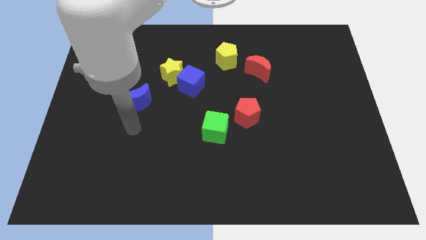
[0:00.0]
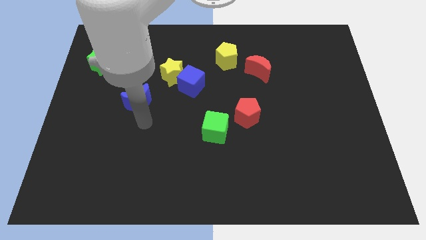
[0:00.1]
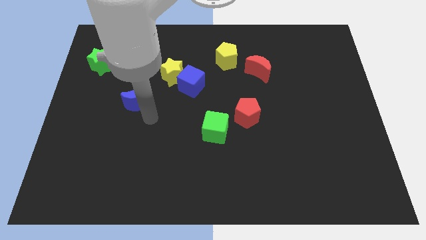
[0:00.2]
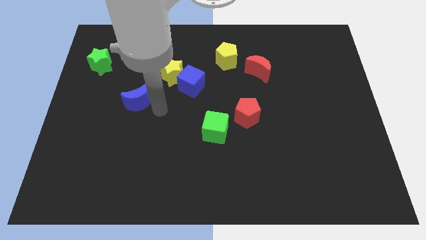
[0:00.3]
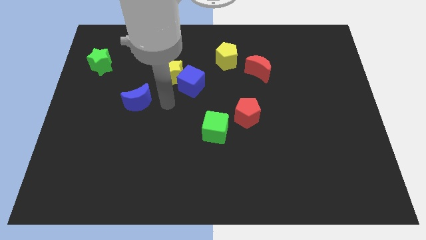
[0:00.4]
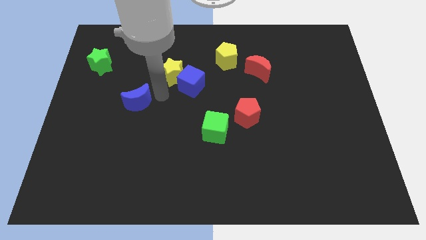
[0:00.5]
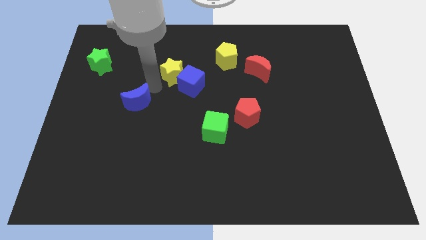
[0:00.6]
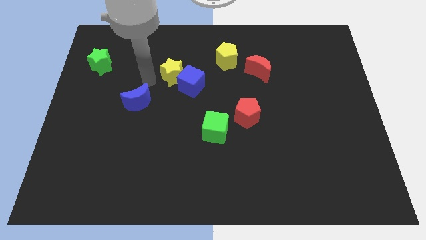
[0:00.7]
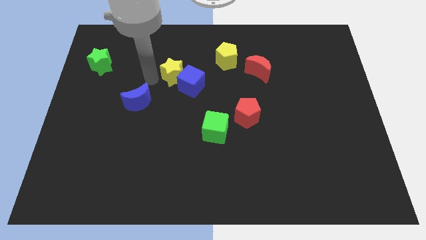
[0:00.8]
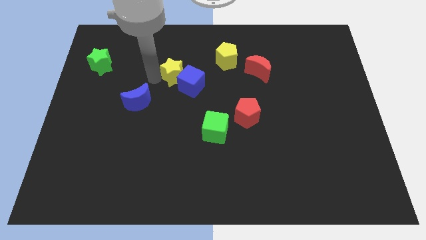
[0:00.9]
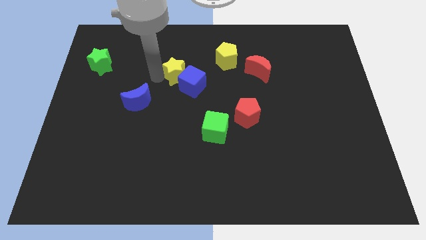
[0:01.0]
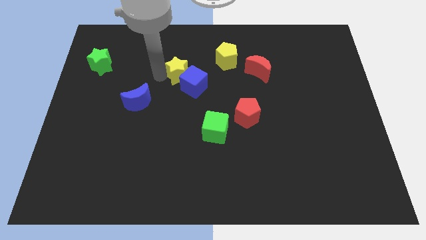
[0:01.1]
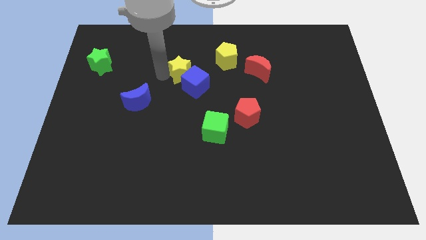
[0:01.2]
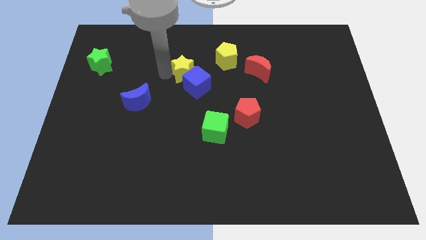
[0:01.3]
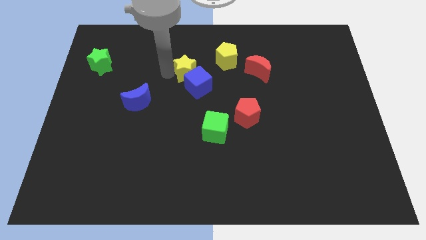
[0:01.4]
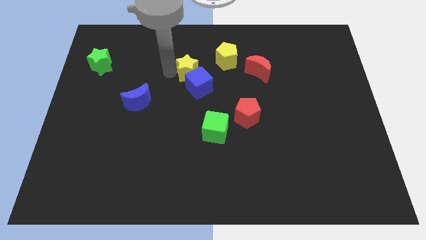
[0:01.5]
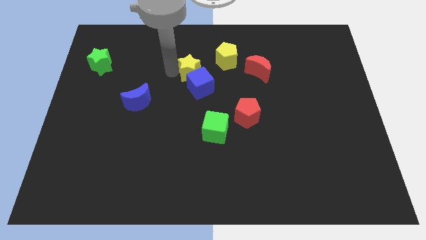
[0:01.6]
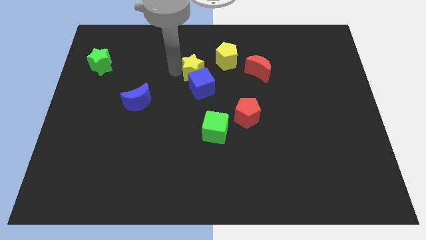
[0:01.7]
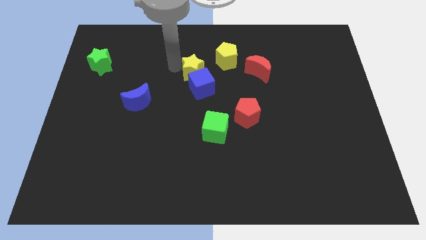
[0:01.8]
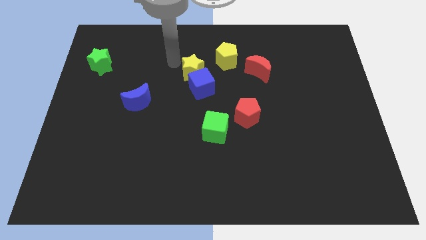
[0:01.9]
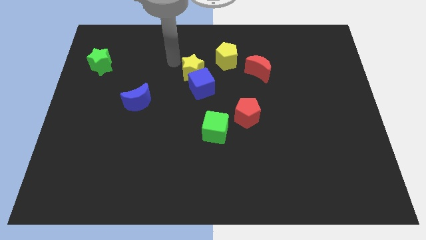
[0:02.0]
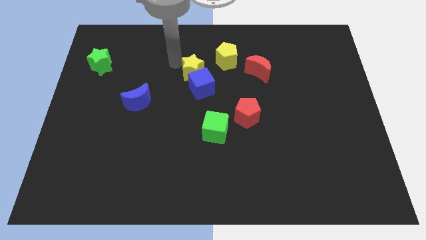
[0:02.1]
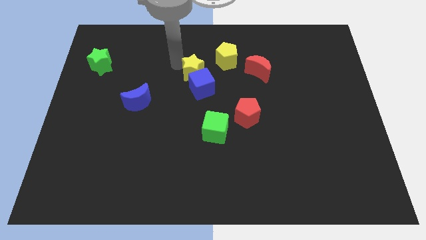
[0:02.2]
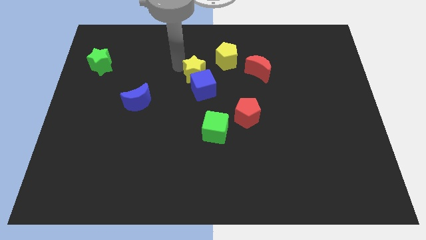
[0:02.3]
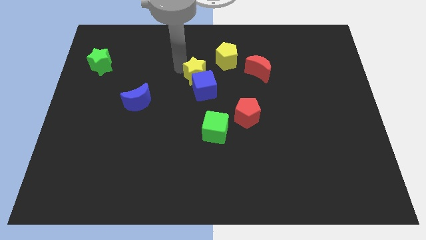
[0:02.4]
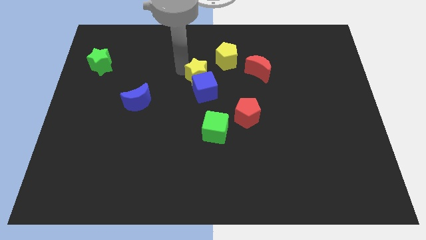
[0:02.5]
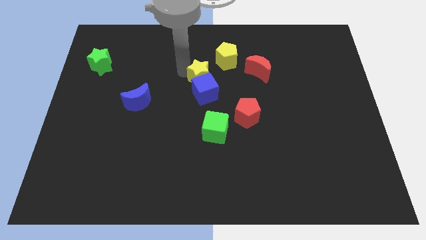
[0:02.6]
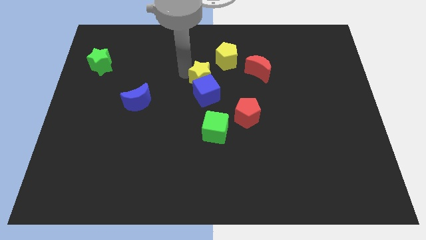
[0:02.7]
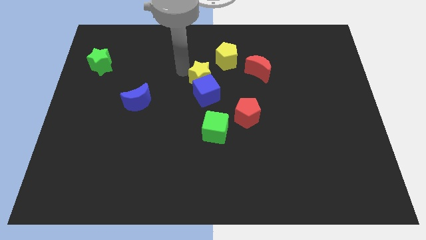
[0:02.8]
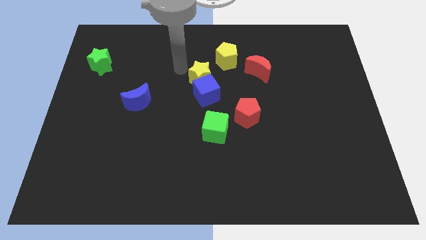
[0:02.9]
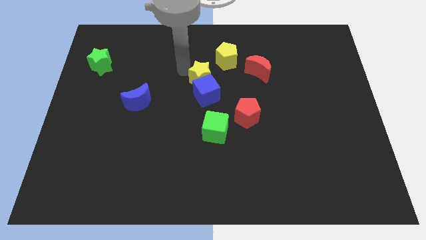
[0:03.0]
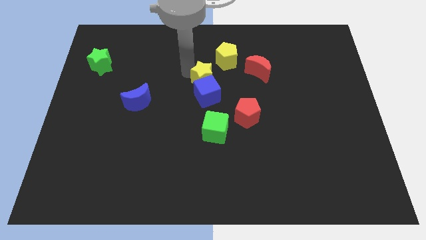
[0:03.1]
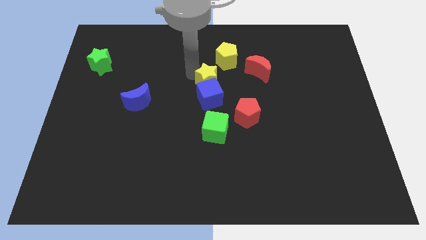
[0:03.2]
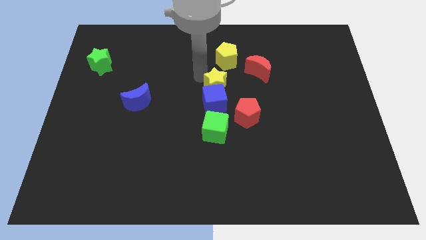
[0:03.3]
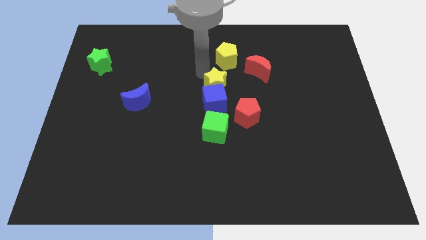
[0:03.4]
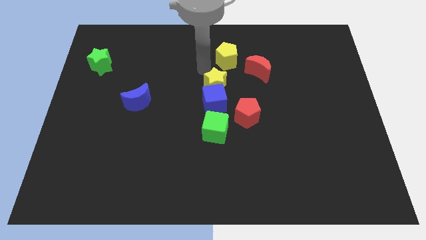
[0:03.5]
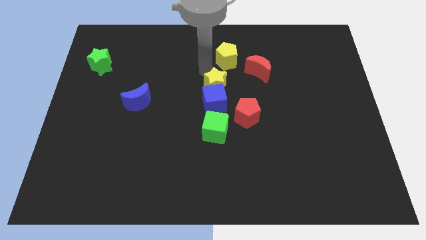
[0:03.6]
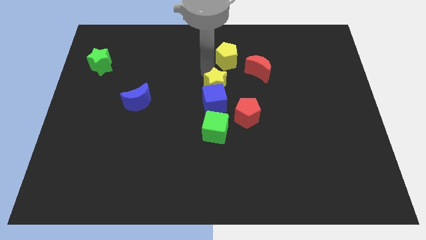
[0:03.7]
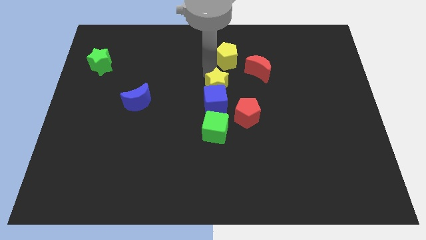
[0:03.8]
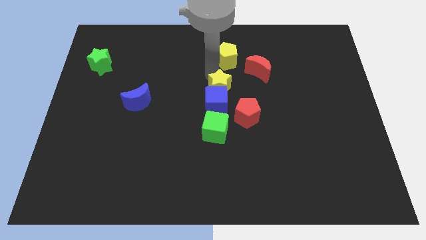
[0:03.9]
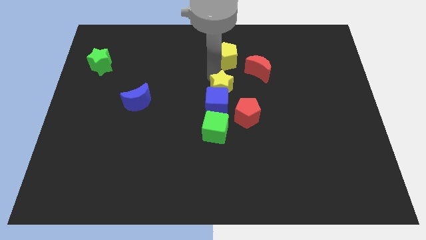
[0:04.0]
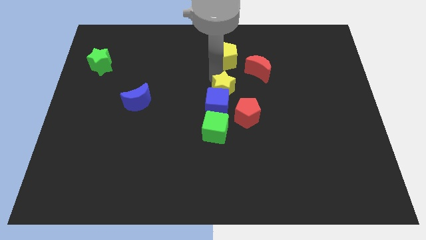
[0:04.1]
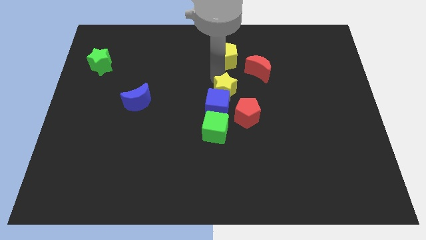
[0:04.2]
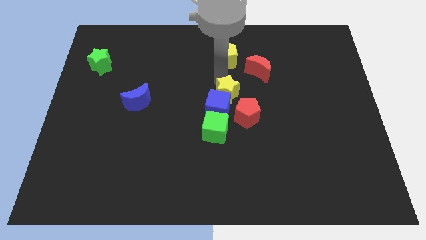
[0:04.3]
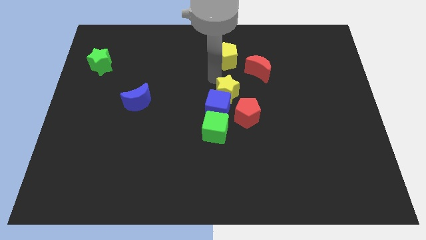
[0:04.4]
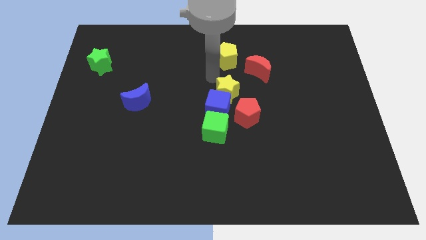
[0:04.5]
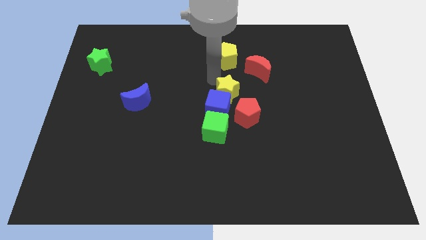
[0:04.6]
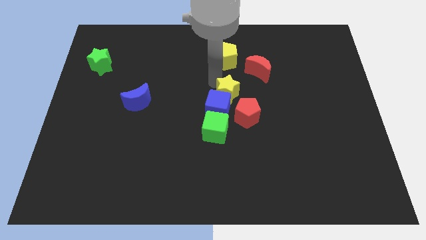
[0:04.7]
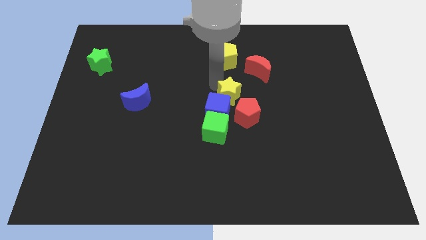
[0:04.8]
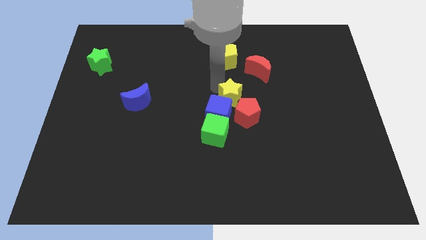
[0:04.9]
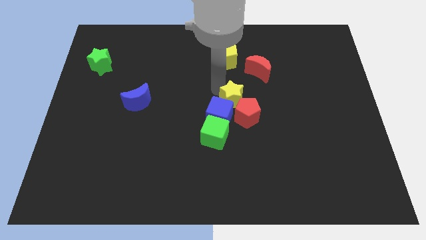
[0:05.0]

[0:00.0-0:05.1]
put the yellow star towards the red pentagon

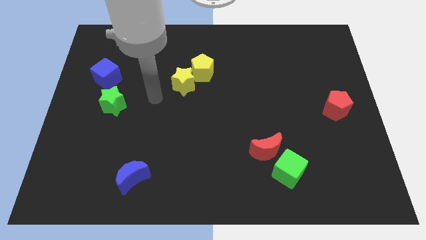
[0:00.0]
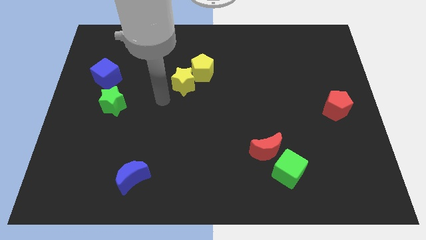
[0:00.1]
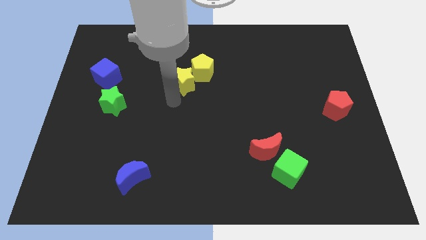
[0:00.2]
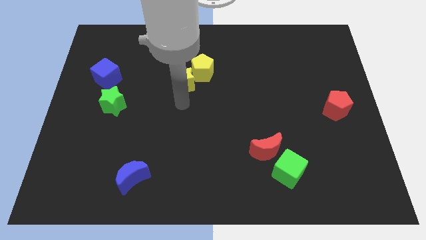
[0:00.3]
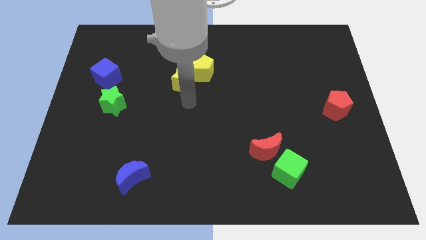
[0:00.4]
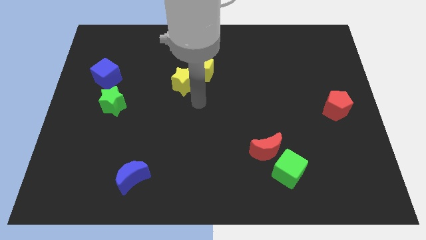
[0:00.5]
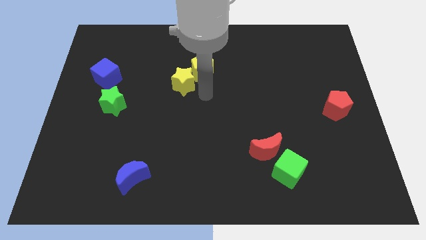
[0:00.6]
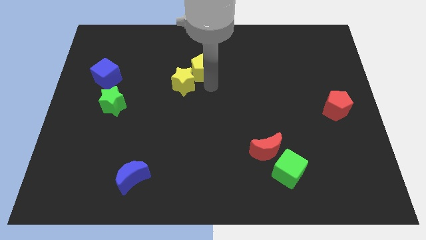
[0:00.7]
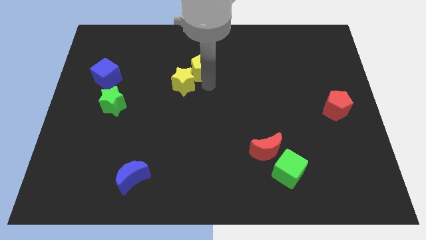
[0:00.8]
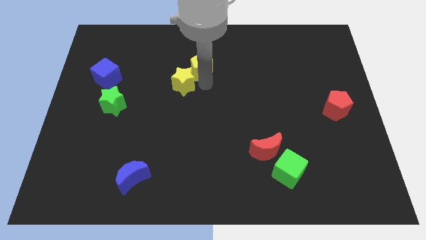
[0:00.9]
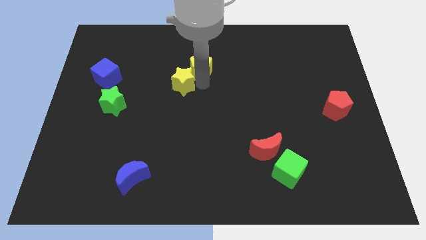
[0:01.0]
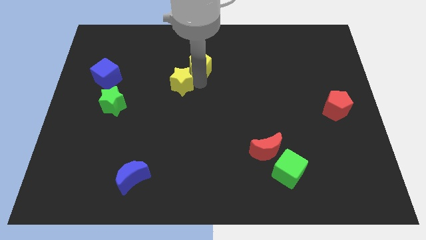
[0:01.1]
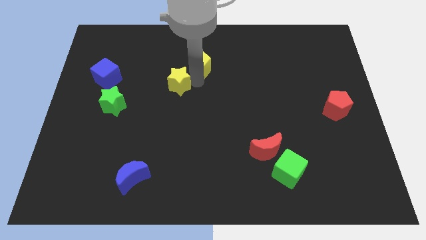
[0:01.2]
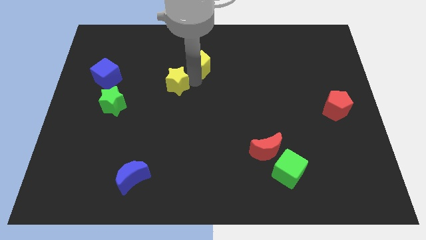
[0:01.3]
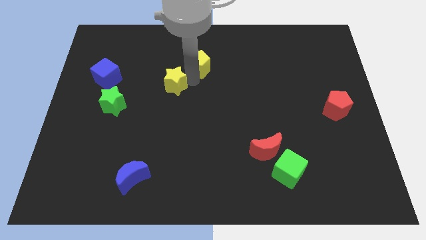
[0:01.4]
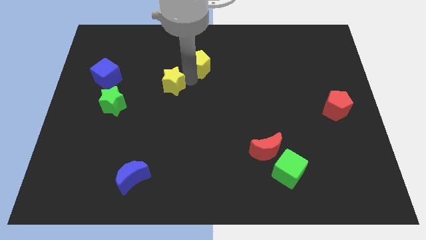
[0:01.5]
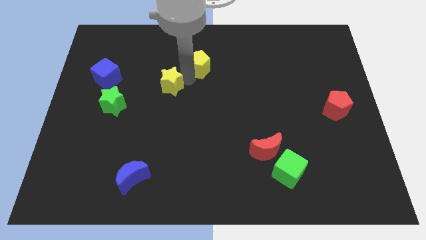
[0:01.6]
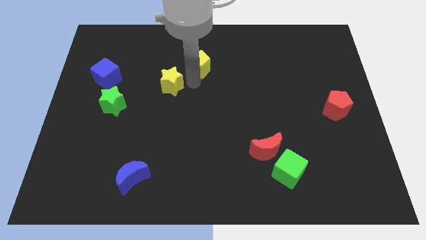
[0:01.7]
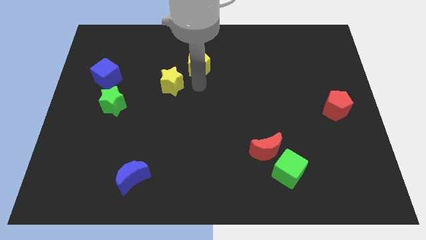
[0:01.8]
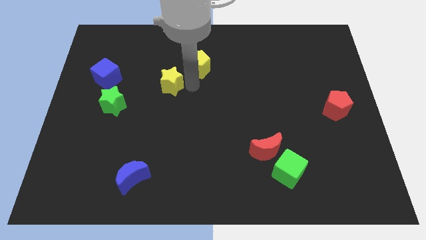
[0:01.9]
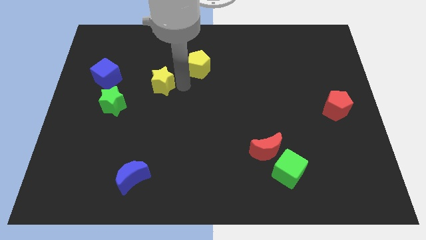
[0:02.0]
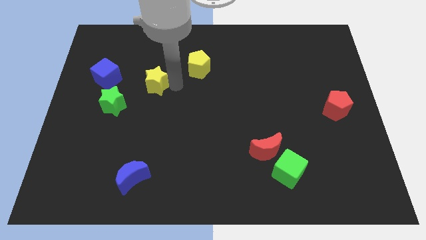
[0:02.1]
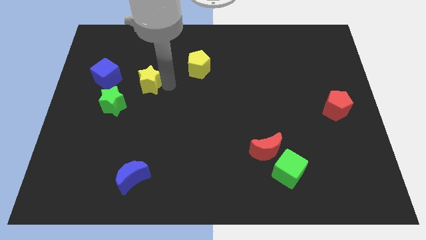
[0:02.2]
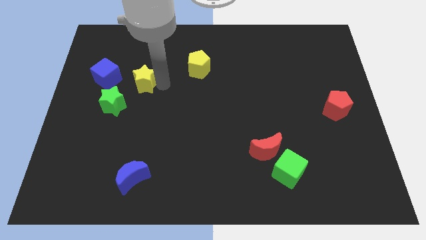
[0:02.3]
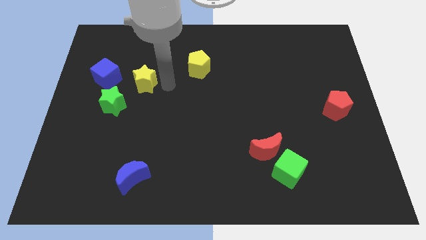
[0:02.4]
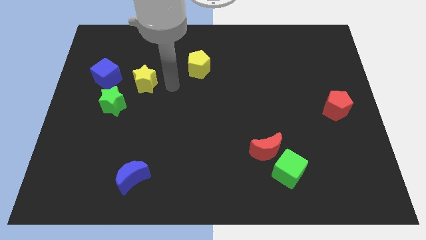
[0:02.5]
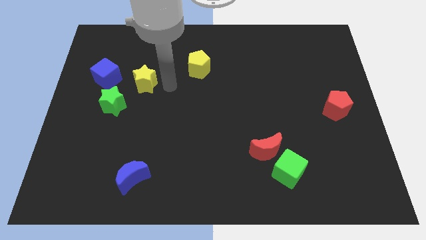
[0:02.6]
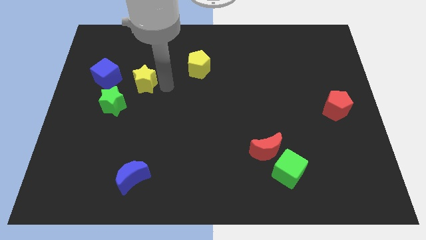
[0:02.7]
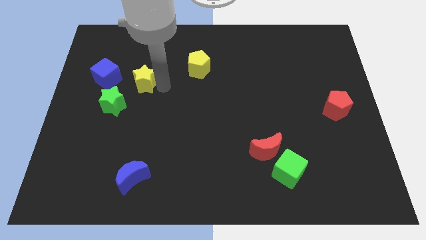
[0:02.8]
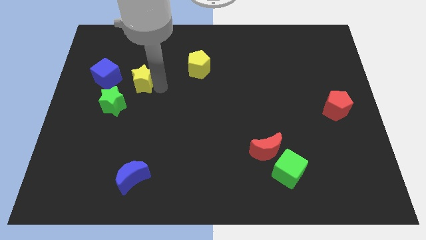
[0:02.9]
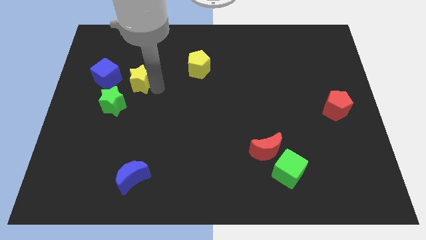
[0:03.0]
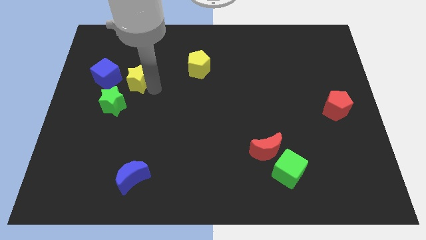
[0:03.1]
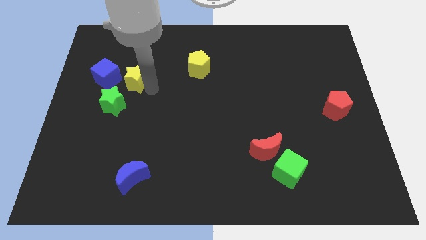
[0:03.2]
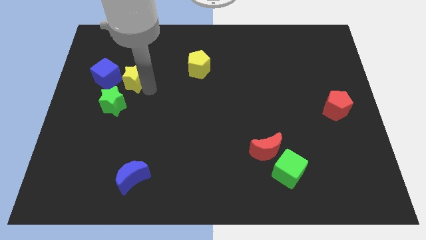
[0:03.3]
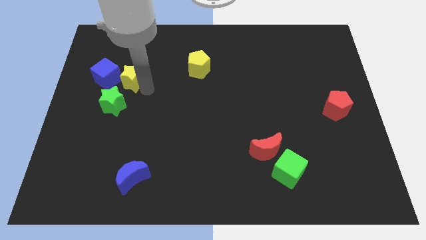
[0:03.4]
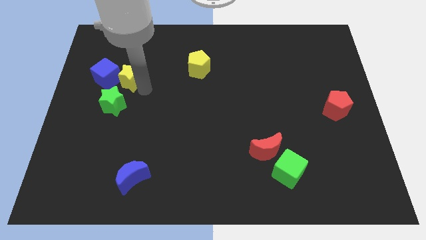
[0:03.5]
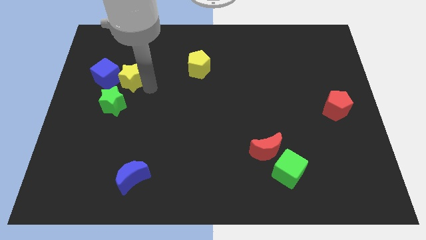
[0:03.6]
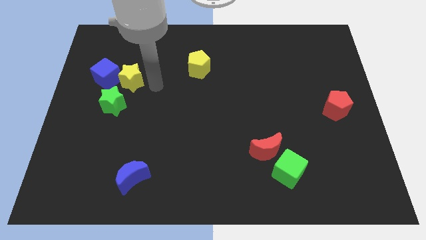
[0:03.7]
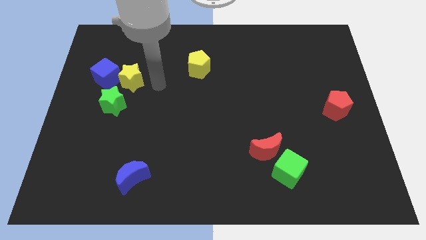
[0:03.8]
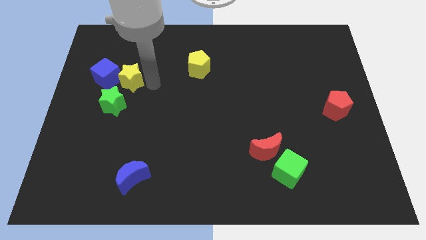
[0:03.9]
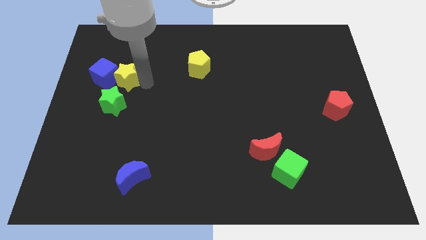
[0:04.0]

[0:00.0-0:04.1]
push the yellow star next to the blue cube
